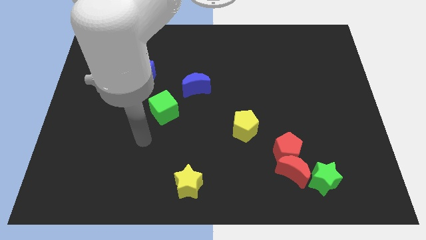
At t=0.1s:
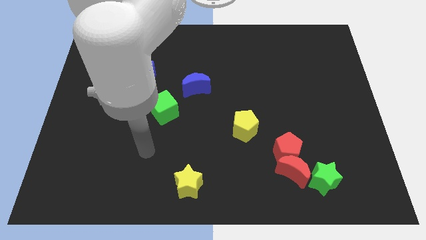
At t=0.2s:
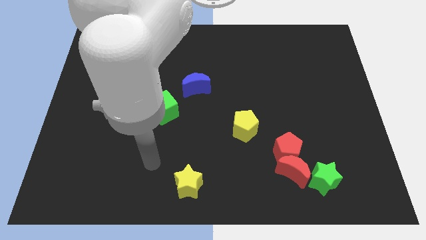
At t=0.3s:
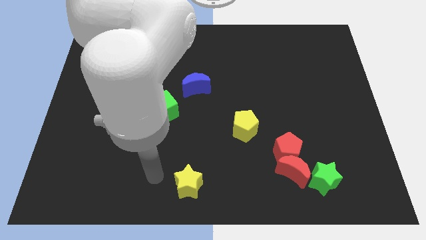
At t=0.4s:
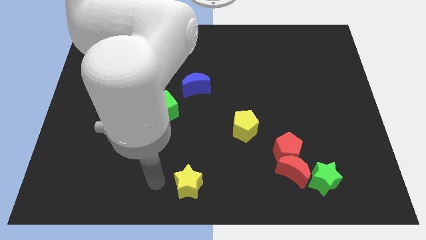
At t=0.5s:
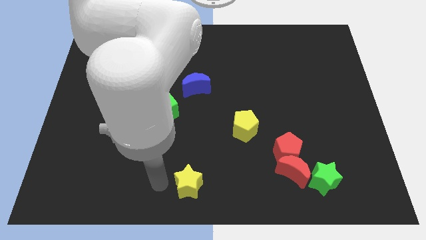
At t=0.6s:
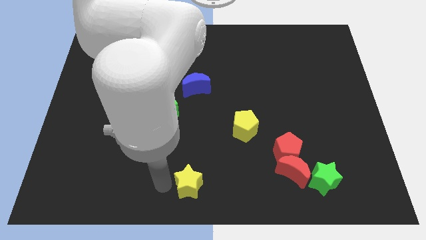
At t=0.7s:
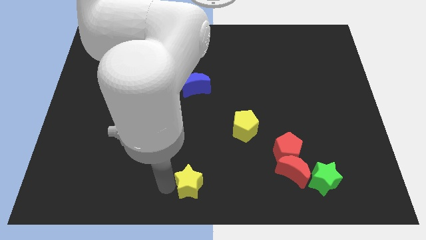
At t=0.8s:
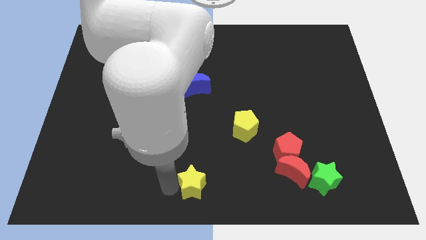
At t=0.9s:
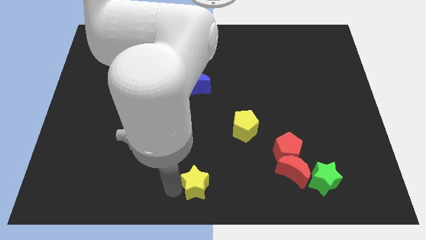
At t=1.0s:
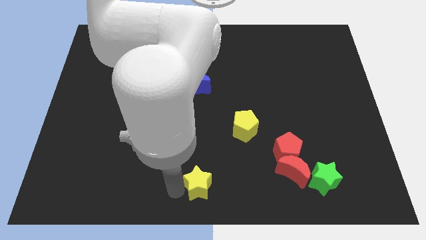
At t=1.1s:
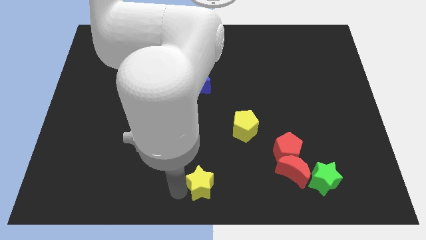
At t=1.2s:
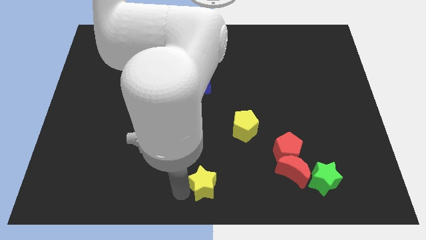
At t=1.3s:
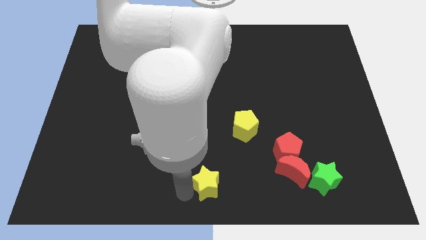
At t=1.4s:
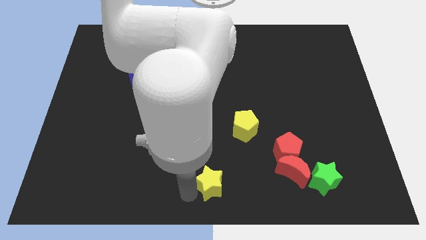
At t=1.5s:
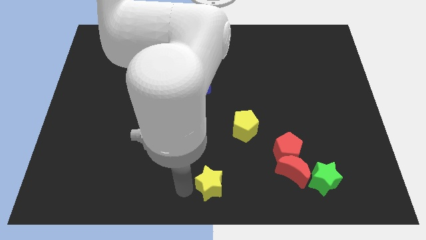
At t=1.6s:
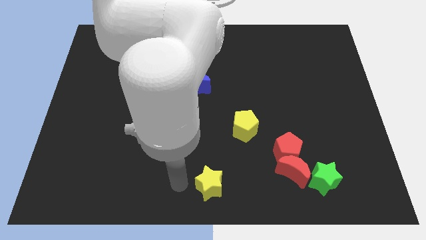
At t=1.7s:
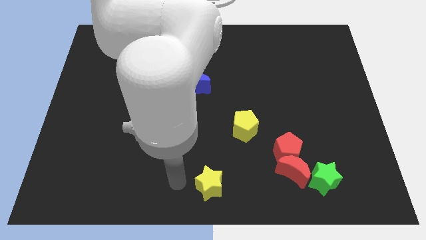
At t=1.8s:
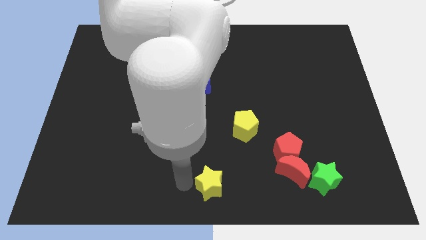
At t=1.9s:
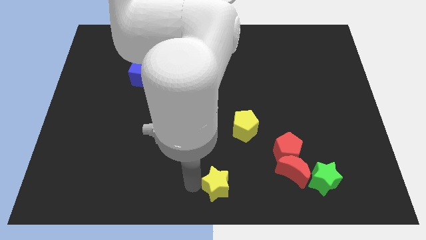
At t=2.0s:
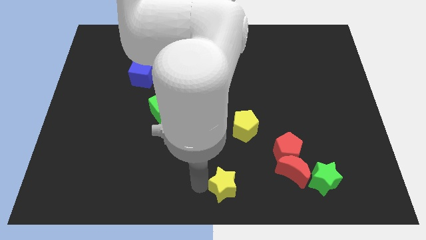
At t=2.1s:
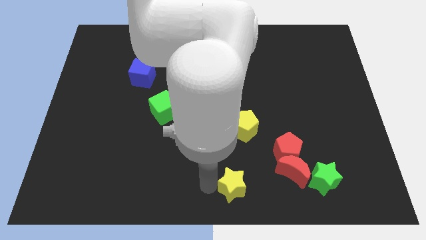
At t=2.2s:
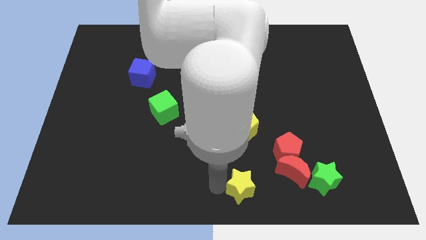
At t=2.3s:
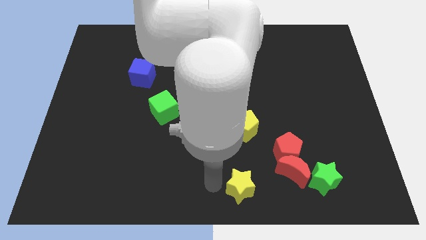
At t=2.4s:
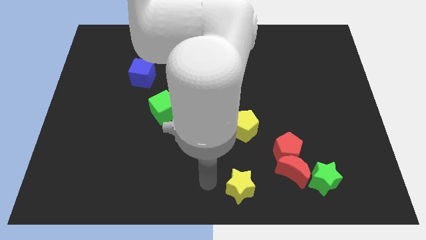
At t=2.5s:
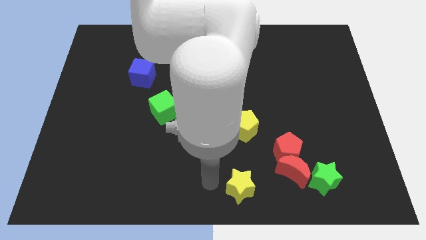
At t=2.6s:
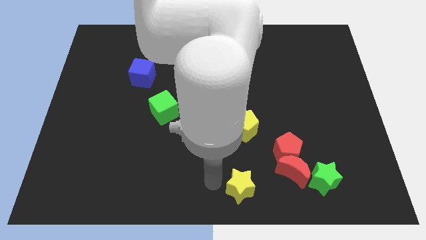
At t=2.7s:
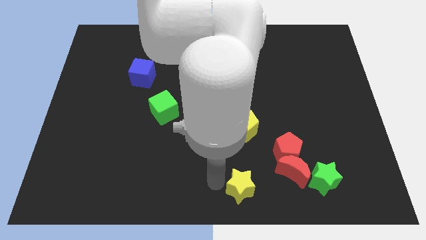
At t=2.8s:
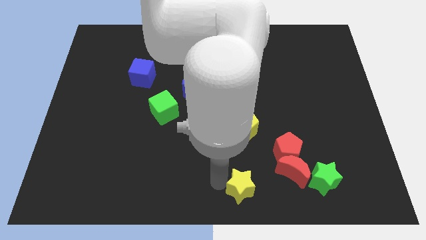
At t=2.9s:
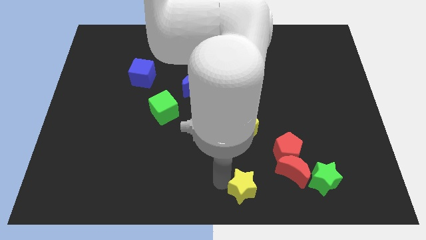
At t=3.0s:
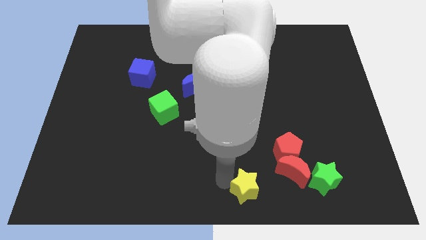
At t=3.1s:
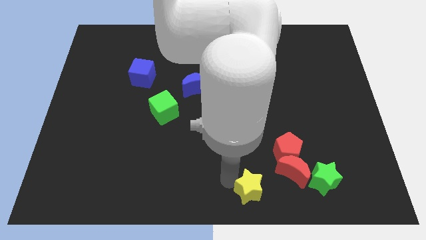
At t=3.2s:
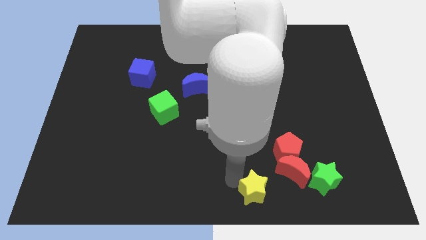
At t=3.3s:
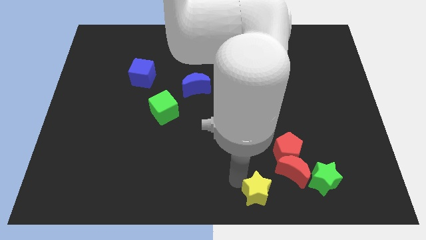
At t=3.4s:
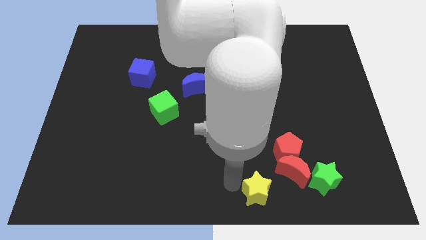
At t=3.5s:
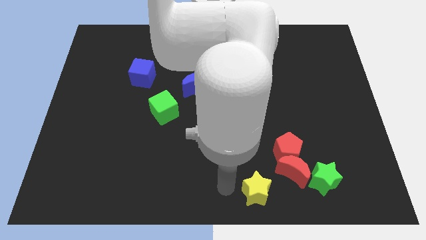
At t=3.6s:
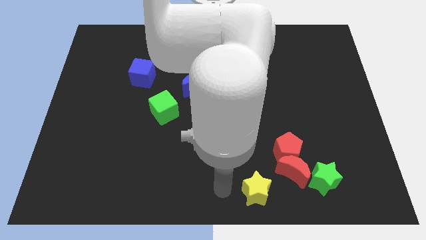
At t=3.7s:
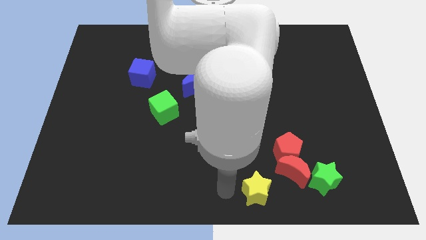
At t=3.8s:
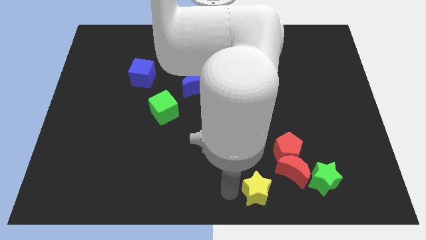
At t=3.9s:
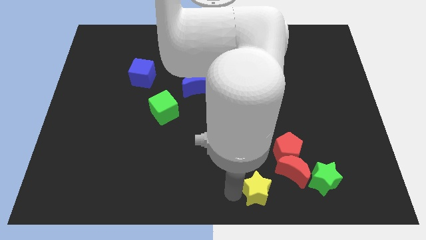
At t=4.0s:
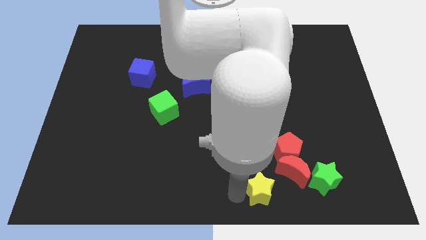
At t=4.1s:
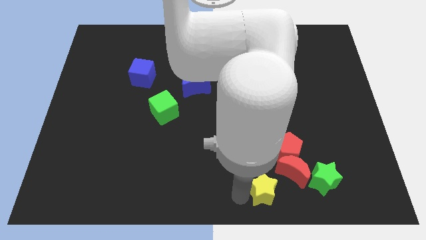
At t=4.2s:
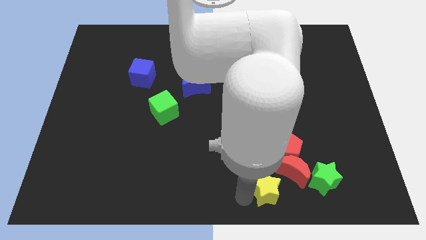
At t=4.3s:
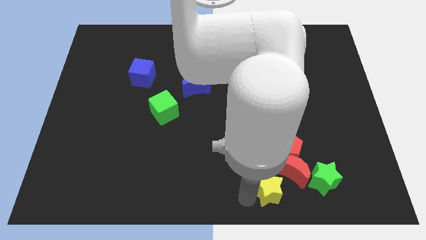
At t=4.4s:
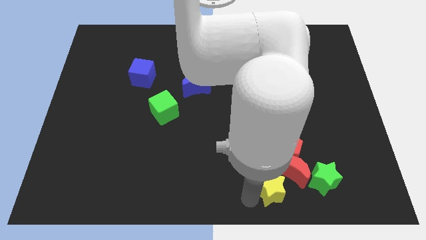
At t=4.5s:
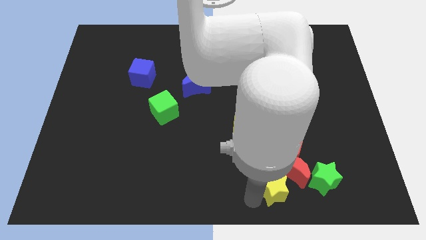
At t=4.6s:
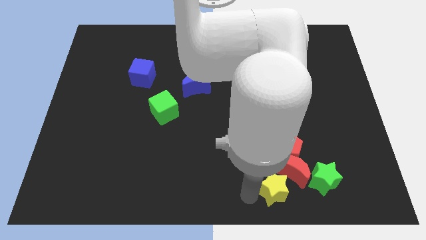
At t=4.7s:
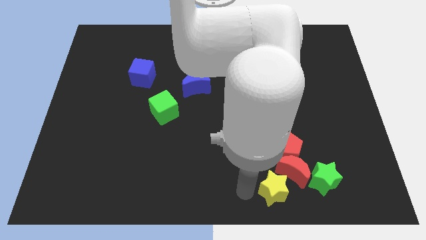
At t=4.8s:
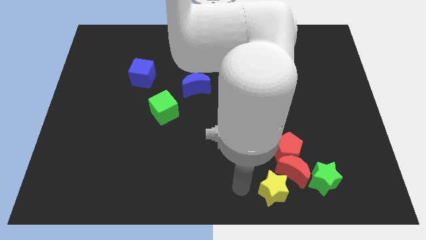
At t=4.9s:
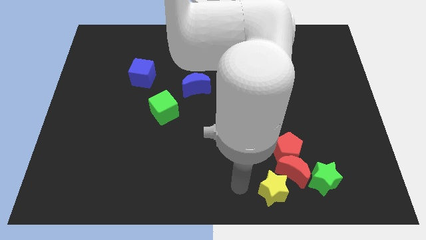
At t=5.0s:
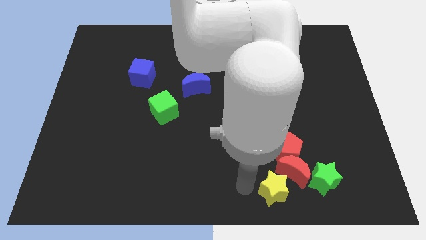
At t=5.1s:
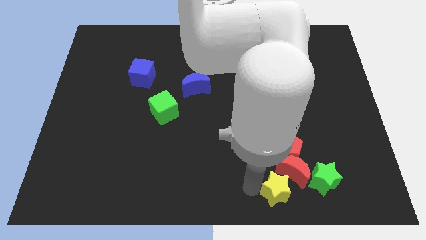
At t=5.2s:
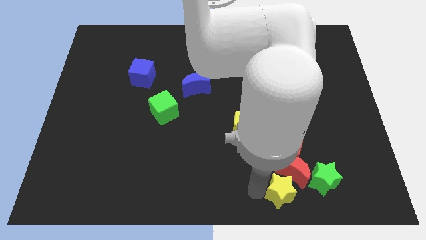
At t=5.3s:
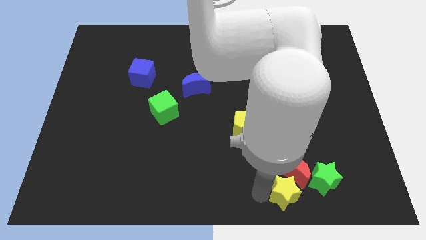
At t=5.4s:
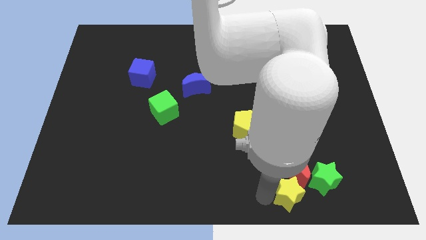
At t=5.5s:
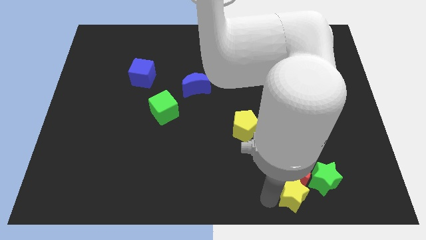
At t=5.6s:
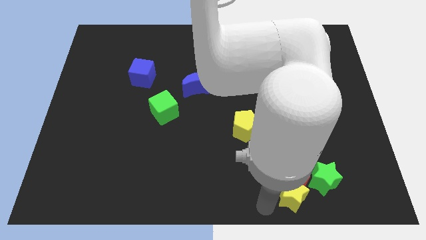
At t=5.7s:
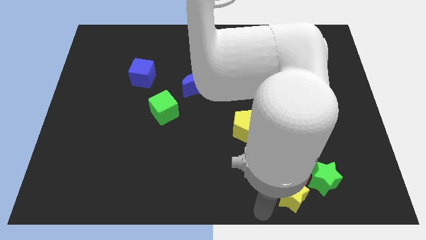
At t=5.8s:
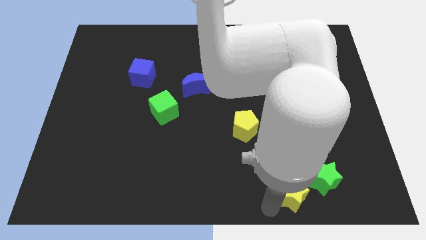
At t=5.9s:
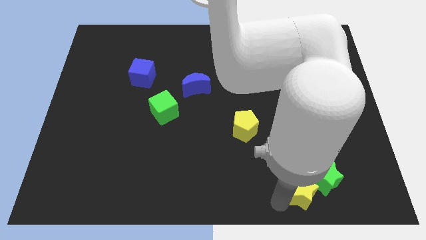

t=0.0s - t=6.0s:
slide the yellow star towards the green star

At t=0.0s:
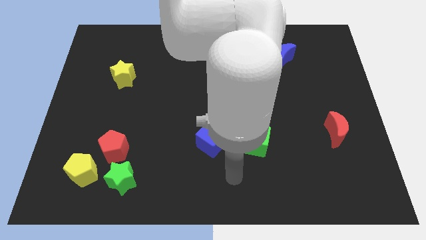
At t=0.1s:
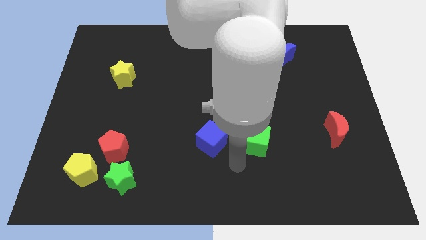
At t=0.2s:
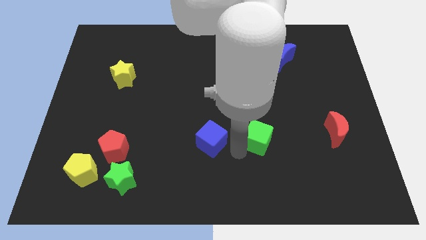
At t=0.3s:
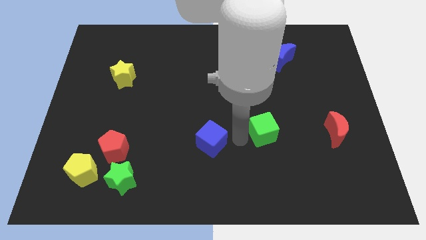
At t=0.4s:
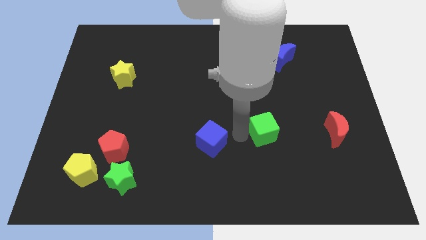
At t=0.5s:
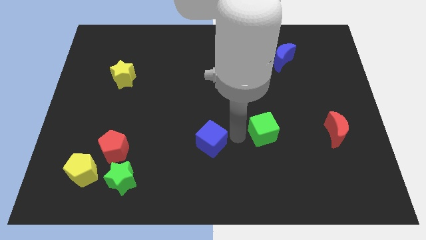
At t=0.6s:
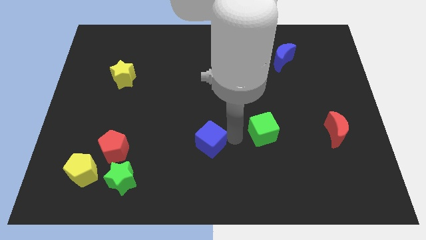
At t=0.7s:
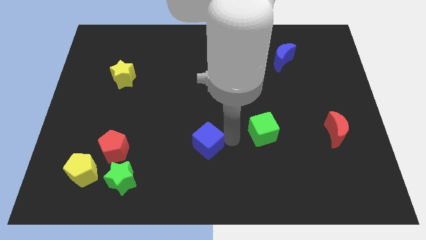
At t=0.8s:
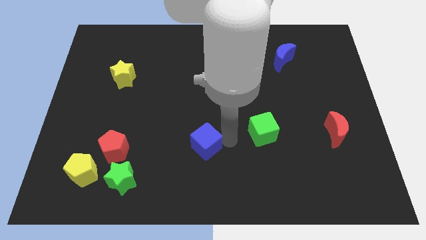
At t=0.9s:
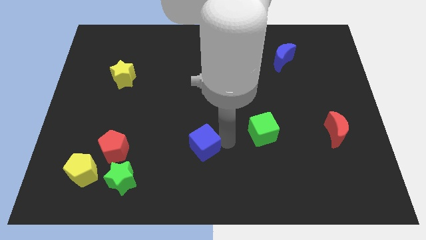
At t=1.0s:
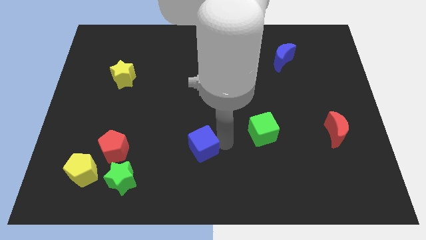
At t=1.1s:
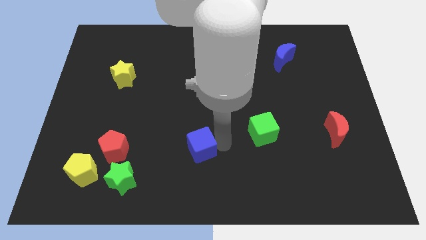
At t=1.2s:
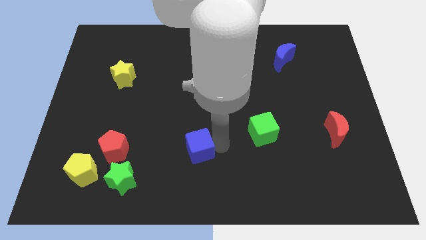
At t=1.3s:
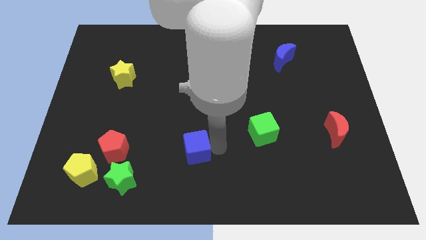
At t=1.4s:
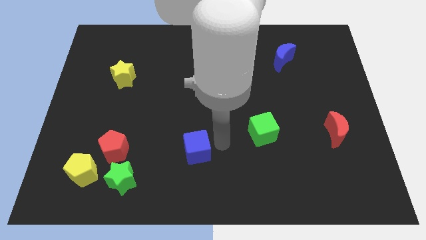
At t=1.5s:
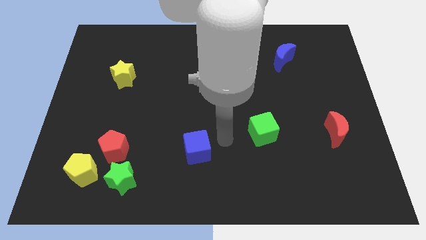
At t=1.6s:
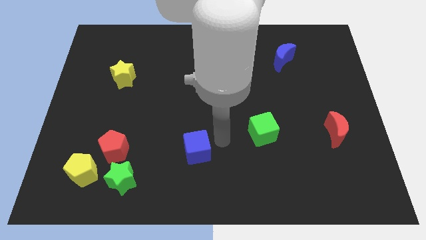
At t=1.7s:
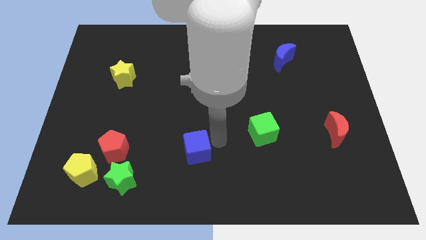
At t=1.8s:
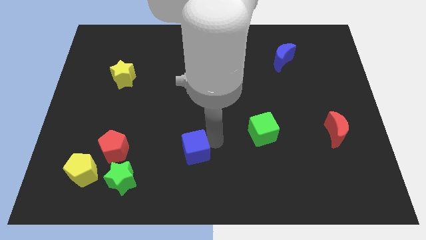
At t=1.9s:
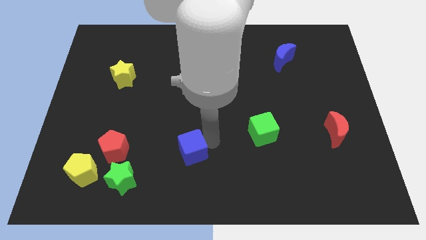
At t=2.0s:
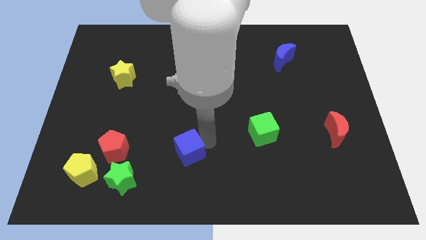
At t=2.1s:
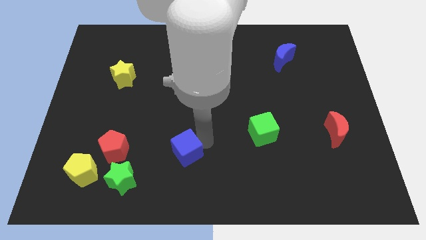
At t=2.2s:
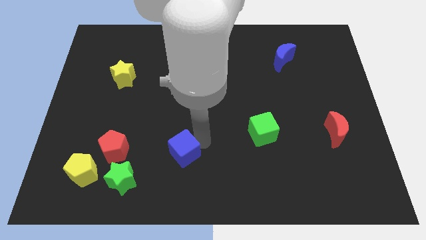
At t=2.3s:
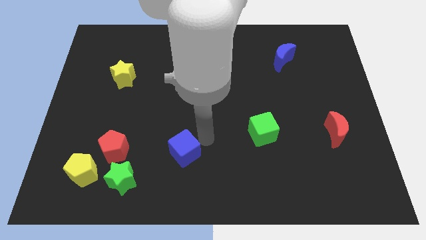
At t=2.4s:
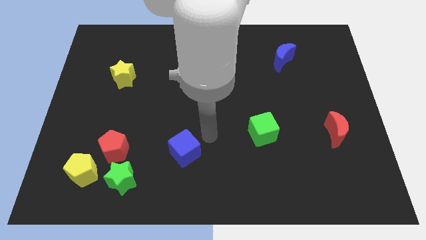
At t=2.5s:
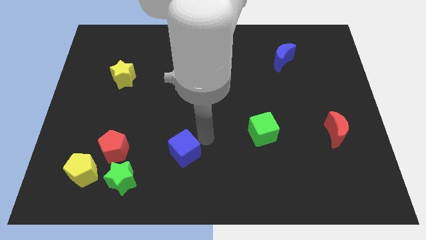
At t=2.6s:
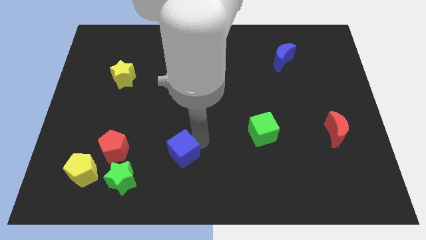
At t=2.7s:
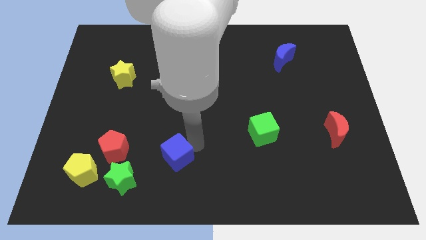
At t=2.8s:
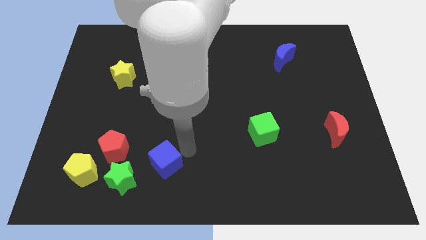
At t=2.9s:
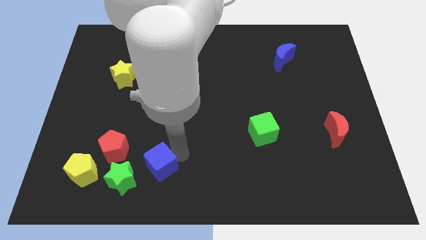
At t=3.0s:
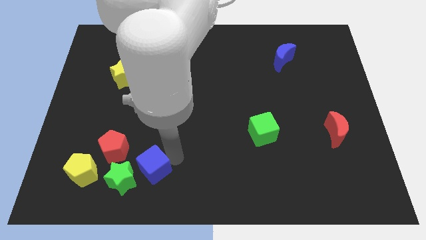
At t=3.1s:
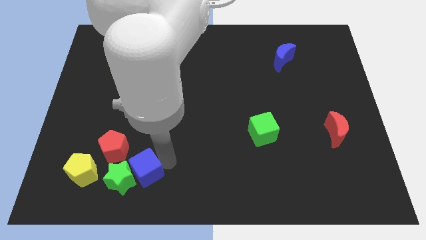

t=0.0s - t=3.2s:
push the blue cube to the green star
